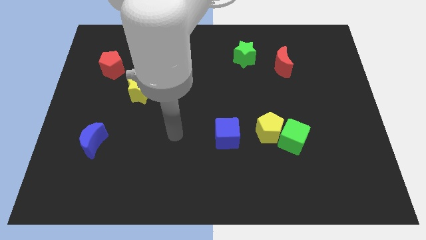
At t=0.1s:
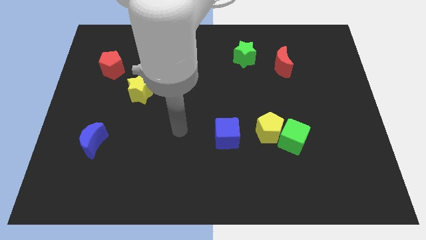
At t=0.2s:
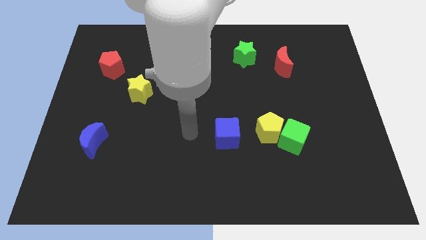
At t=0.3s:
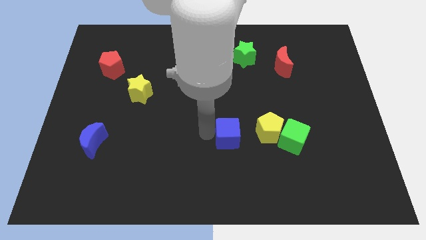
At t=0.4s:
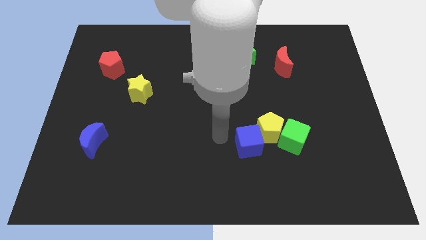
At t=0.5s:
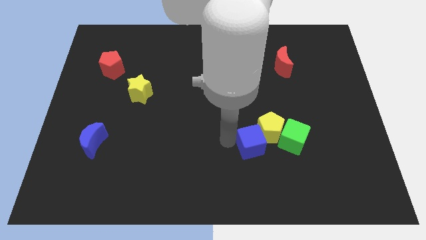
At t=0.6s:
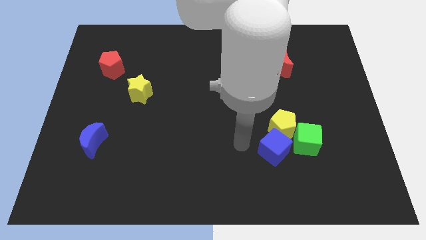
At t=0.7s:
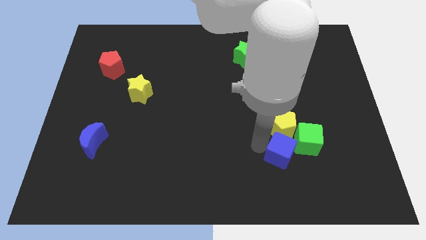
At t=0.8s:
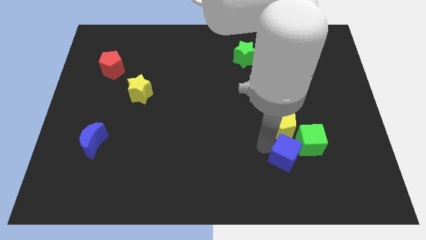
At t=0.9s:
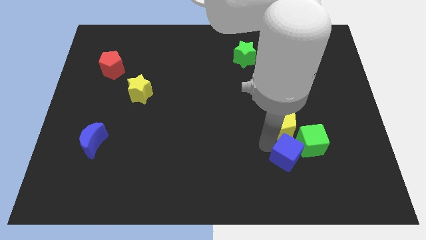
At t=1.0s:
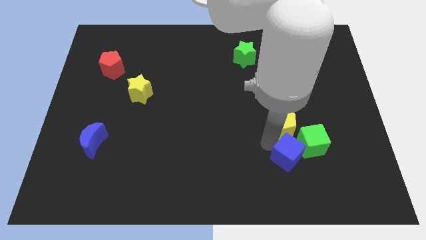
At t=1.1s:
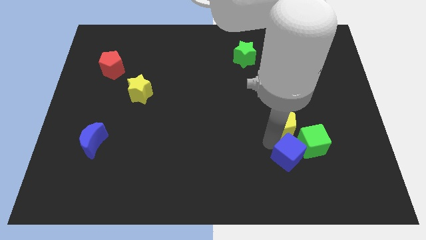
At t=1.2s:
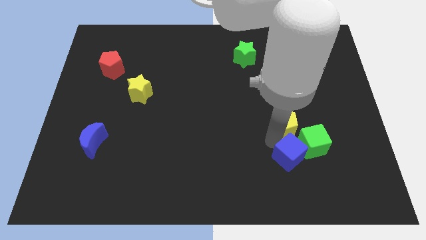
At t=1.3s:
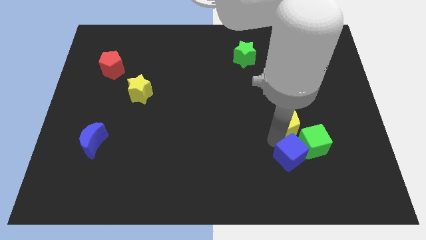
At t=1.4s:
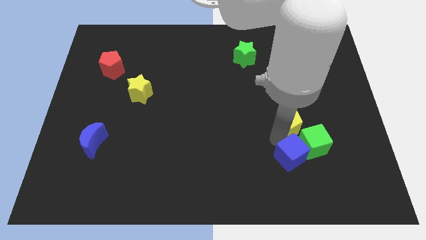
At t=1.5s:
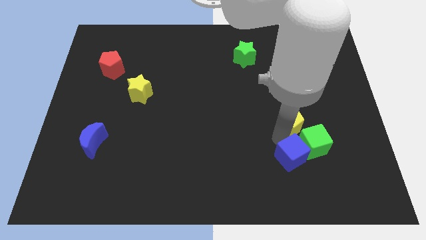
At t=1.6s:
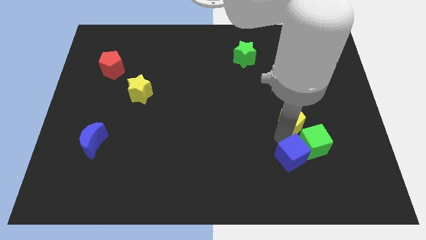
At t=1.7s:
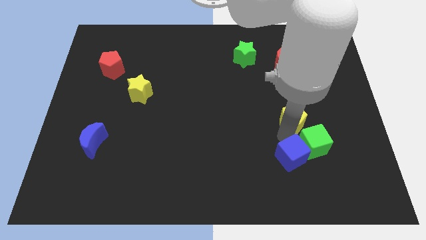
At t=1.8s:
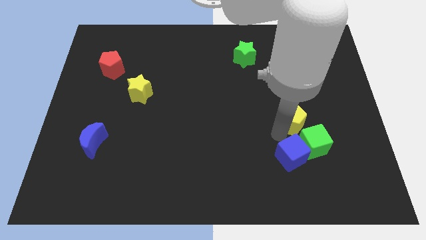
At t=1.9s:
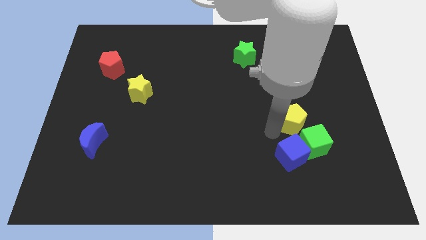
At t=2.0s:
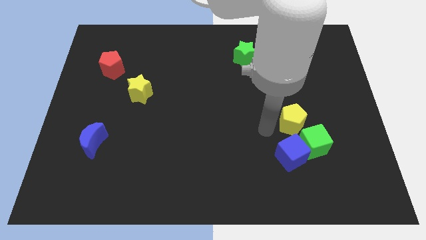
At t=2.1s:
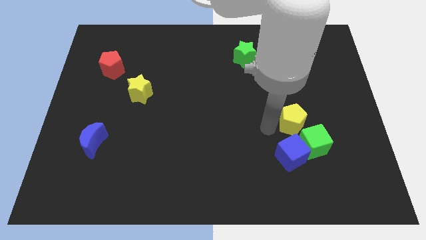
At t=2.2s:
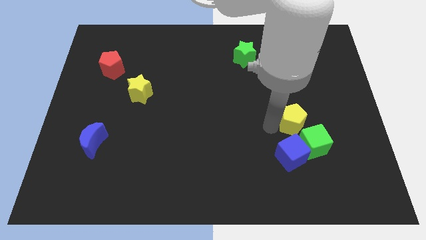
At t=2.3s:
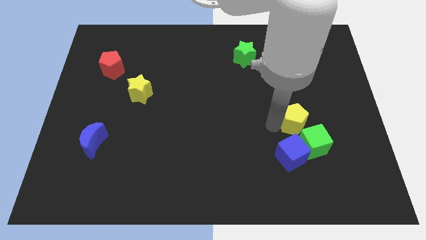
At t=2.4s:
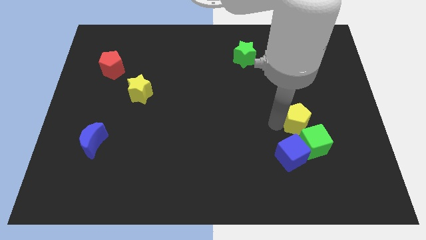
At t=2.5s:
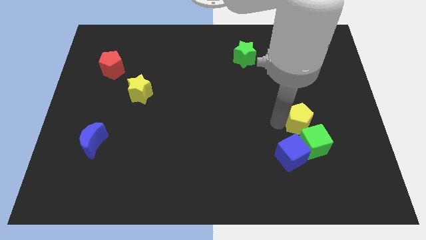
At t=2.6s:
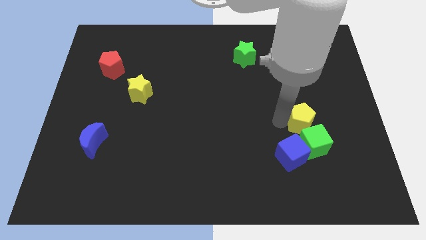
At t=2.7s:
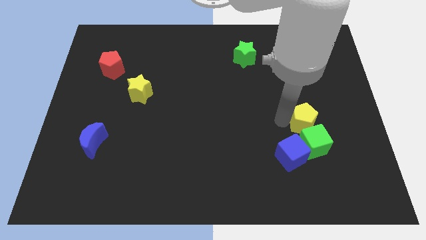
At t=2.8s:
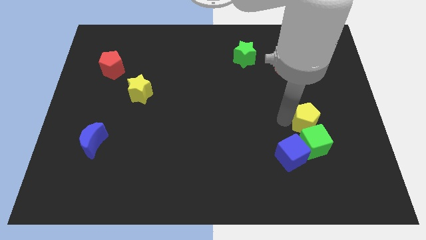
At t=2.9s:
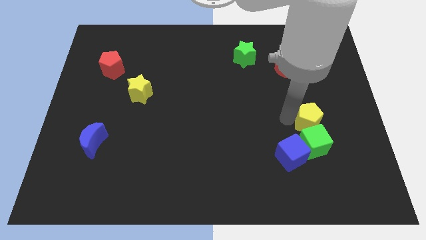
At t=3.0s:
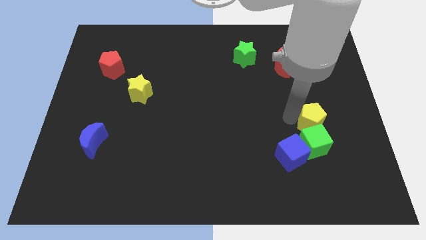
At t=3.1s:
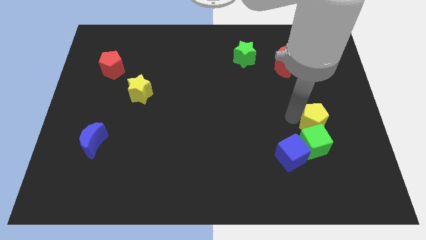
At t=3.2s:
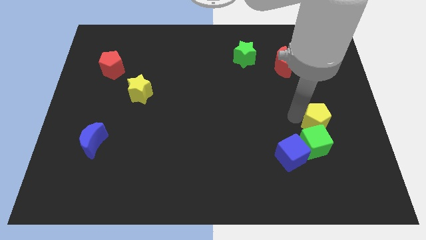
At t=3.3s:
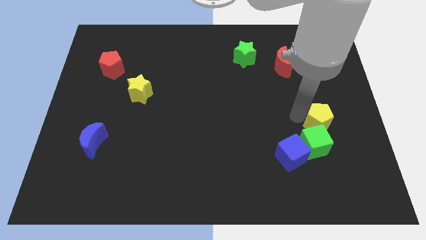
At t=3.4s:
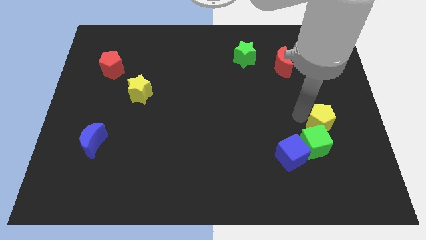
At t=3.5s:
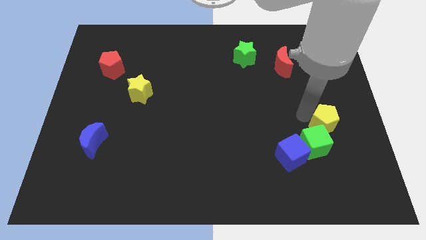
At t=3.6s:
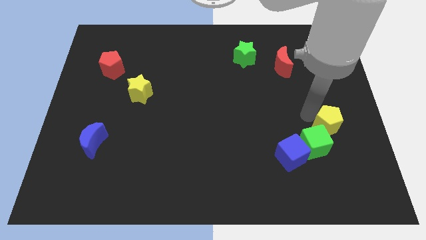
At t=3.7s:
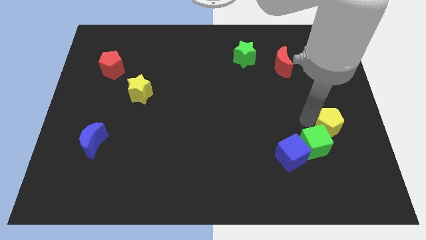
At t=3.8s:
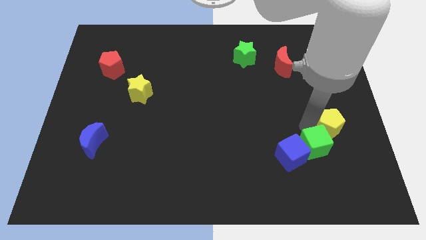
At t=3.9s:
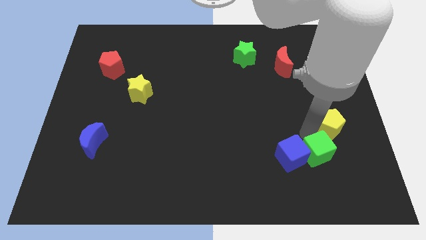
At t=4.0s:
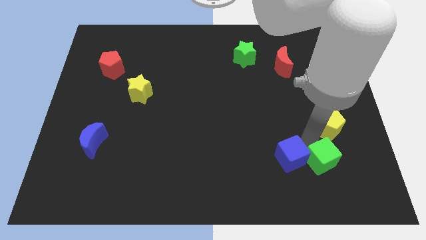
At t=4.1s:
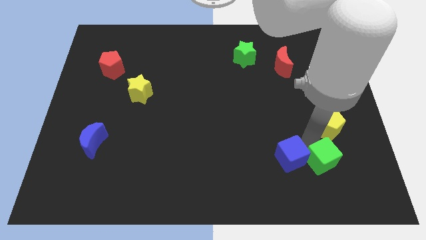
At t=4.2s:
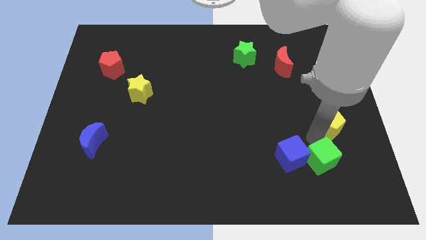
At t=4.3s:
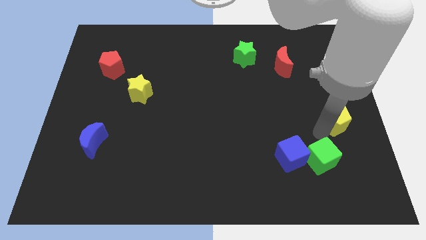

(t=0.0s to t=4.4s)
put the yellow pentagon to the right side

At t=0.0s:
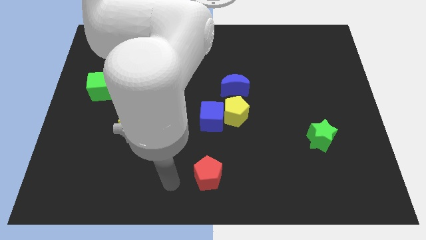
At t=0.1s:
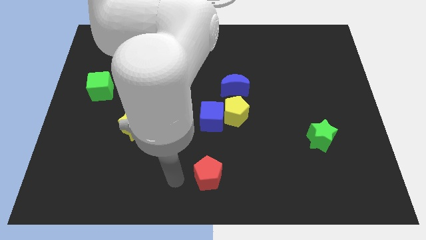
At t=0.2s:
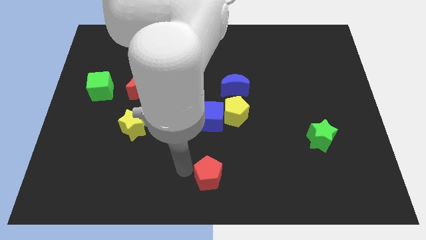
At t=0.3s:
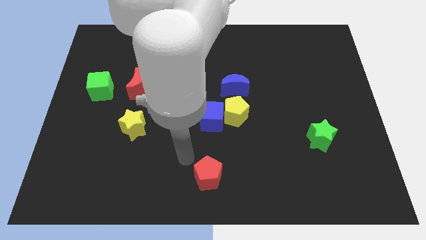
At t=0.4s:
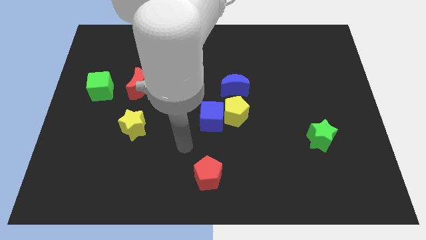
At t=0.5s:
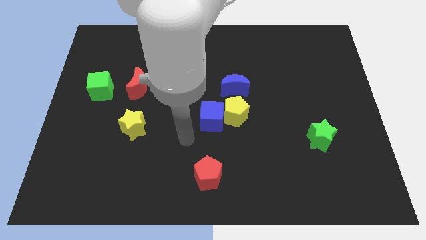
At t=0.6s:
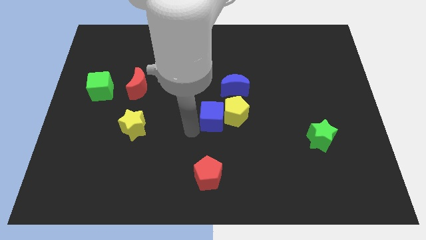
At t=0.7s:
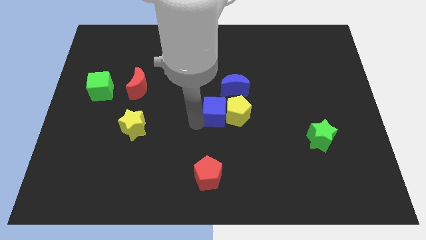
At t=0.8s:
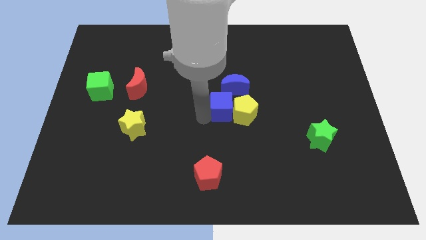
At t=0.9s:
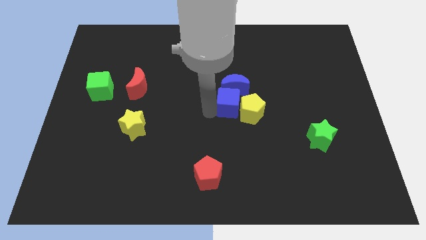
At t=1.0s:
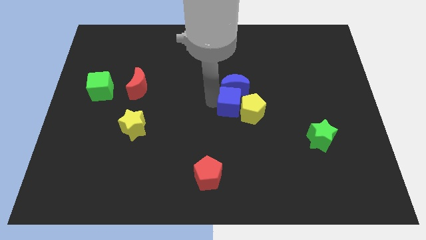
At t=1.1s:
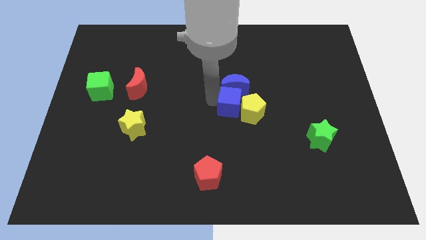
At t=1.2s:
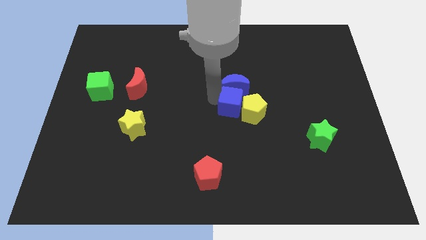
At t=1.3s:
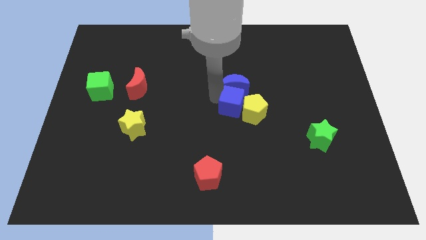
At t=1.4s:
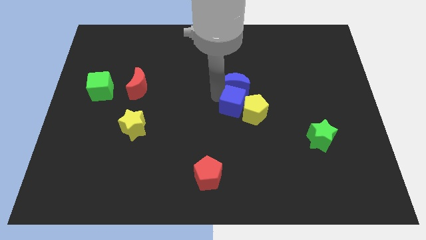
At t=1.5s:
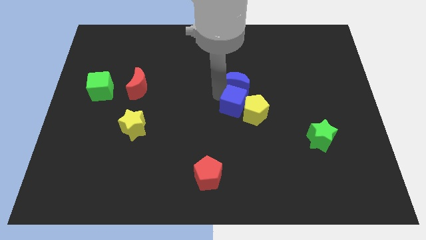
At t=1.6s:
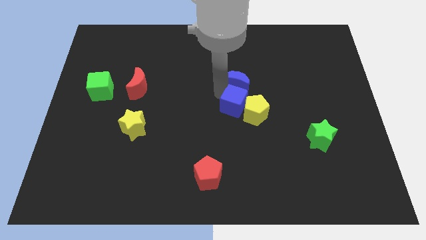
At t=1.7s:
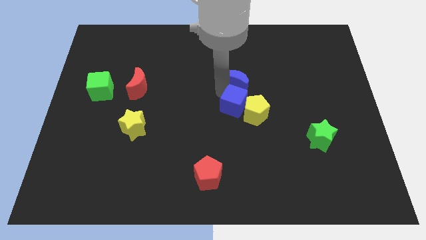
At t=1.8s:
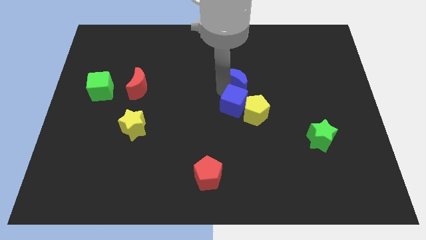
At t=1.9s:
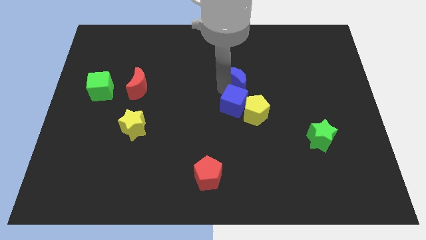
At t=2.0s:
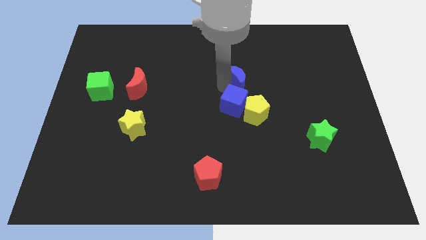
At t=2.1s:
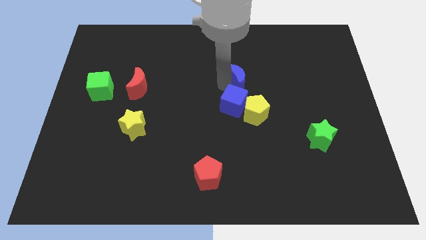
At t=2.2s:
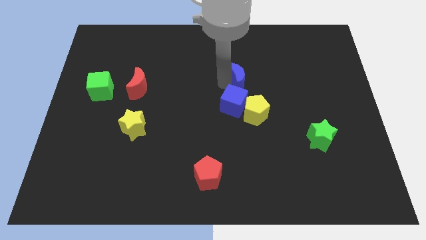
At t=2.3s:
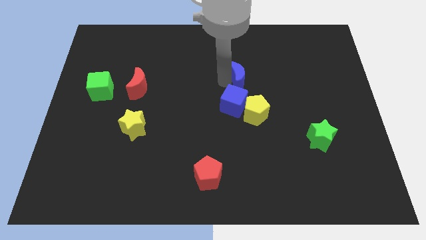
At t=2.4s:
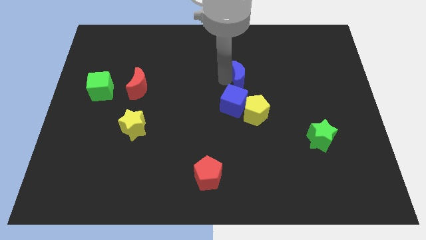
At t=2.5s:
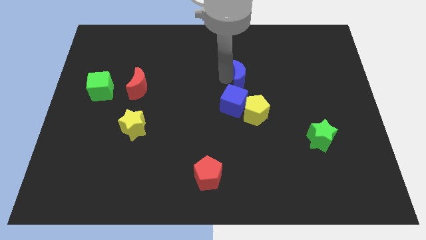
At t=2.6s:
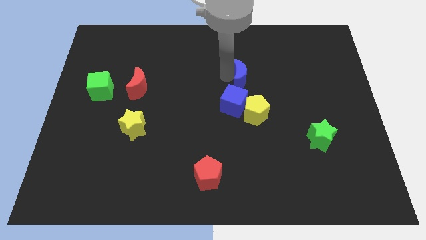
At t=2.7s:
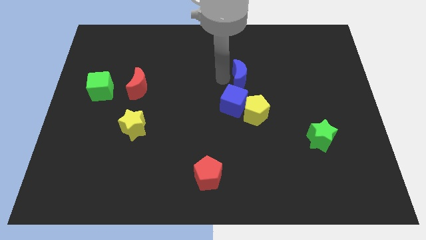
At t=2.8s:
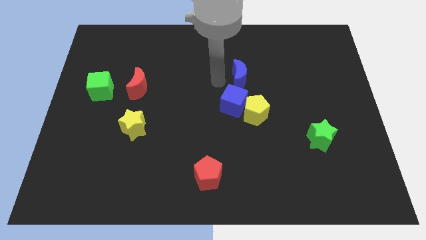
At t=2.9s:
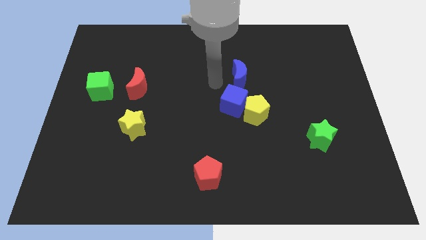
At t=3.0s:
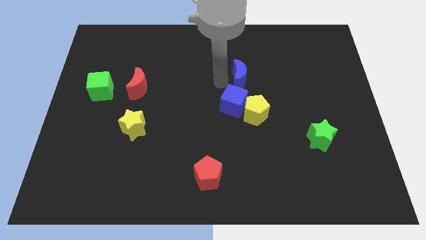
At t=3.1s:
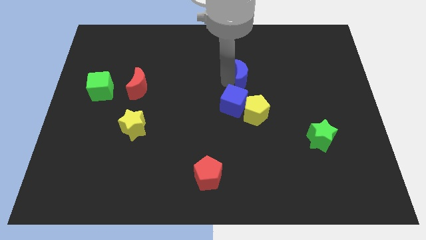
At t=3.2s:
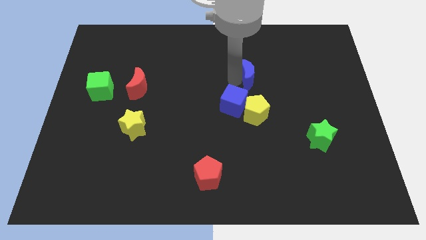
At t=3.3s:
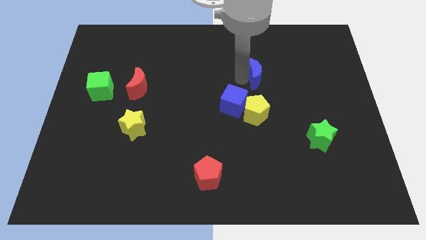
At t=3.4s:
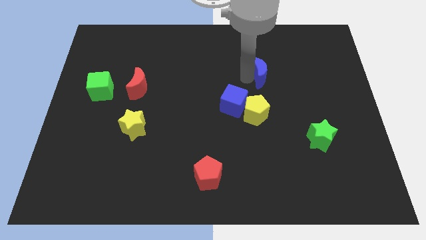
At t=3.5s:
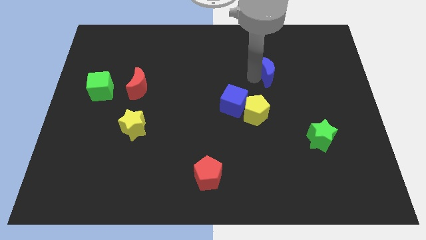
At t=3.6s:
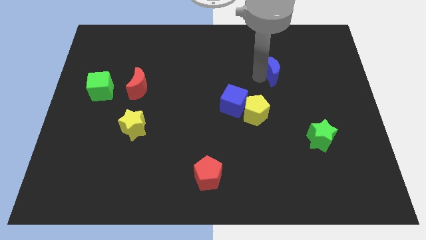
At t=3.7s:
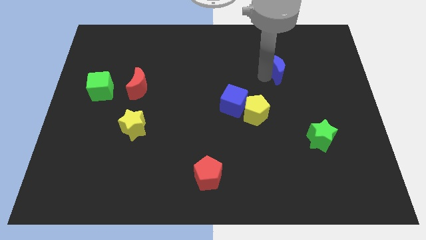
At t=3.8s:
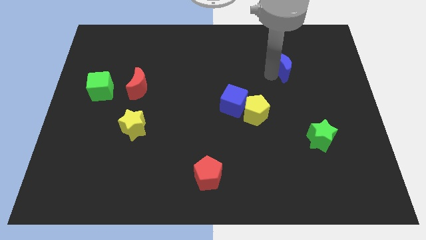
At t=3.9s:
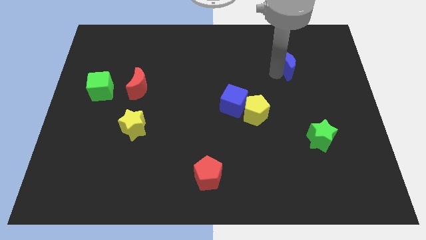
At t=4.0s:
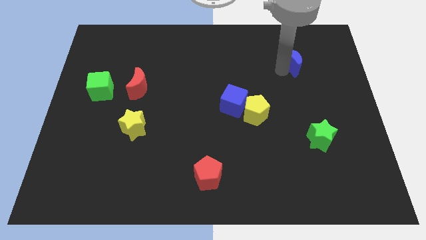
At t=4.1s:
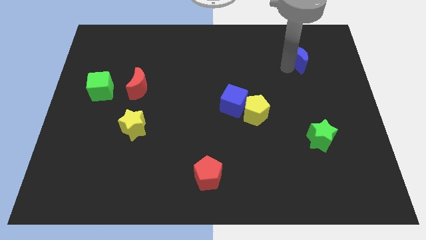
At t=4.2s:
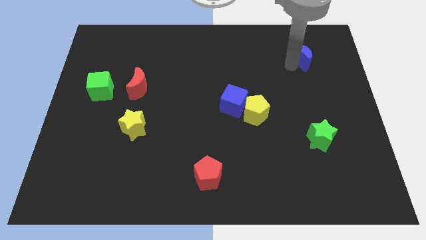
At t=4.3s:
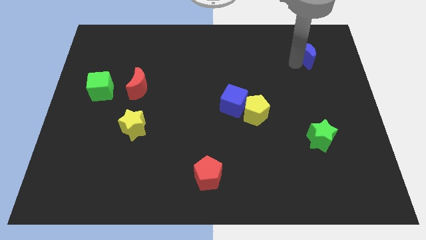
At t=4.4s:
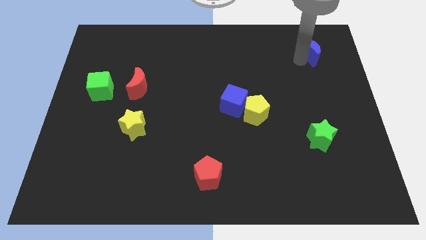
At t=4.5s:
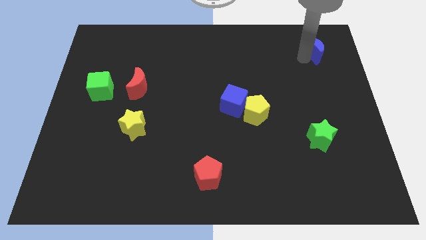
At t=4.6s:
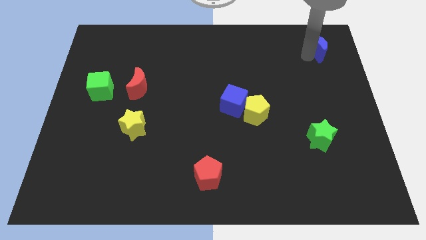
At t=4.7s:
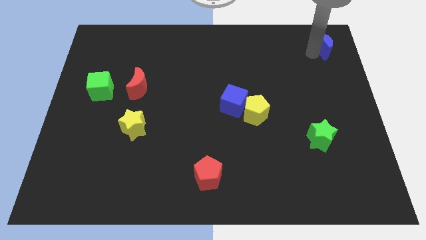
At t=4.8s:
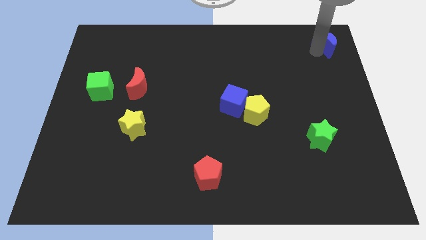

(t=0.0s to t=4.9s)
put the blue moon to the top right
